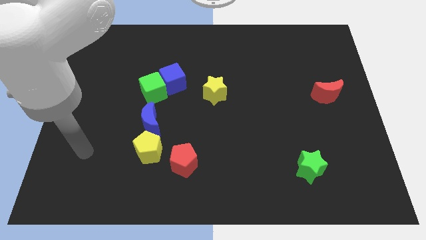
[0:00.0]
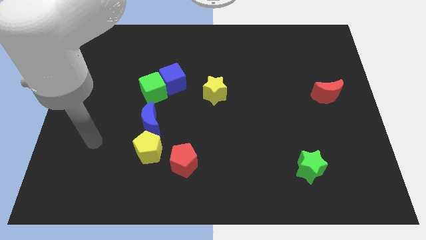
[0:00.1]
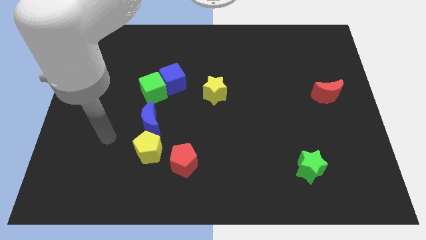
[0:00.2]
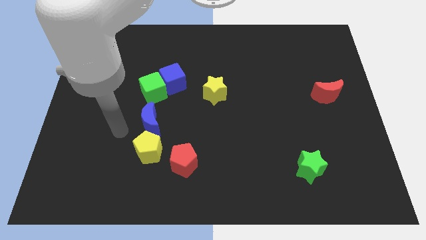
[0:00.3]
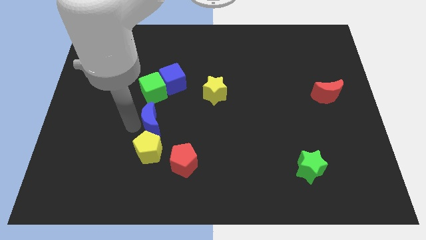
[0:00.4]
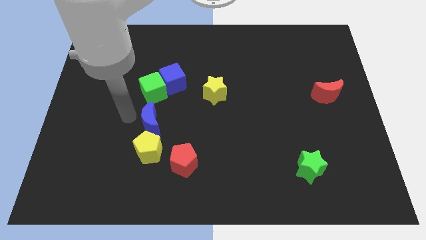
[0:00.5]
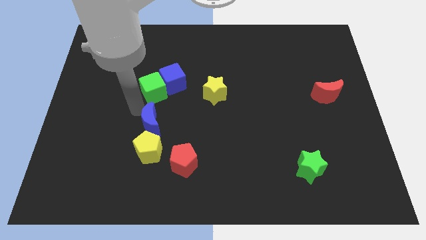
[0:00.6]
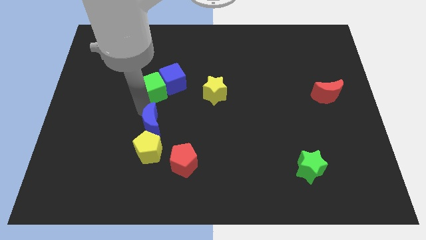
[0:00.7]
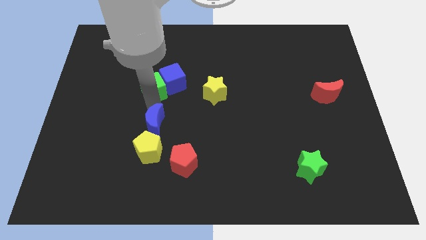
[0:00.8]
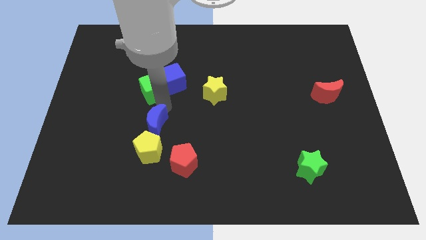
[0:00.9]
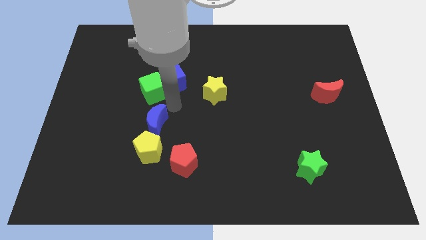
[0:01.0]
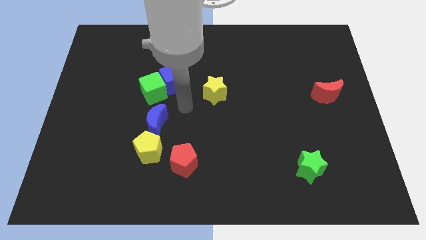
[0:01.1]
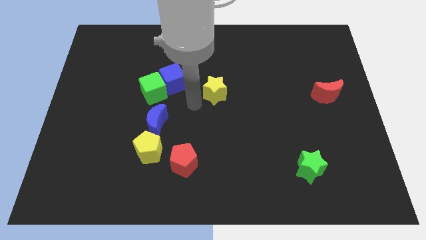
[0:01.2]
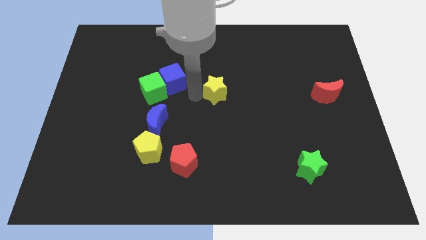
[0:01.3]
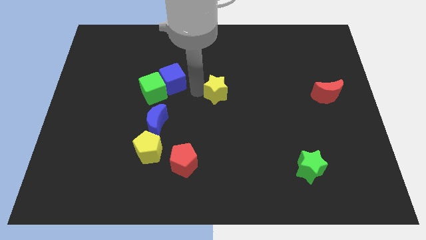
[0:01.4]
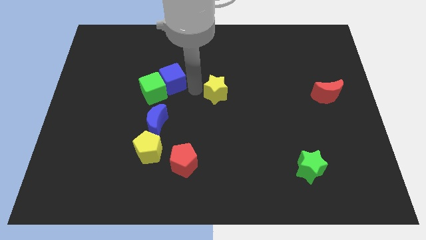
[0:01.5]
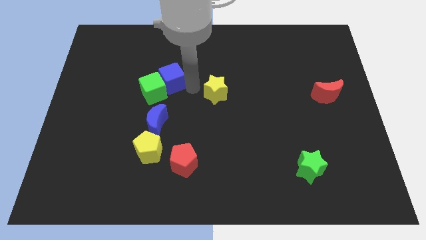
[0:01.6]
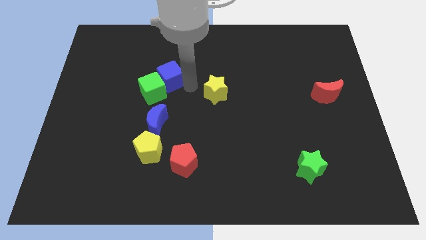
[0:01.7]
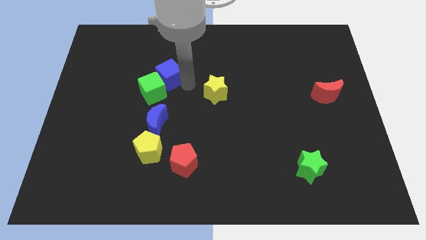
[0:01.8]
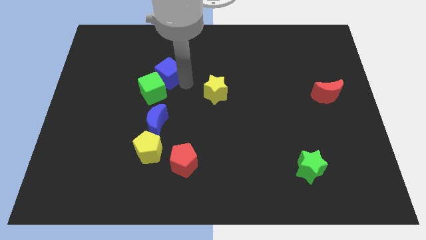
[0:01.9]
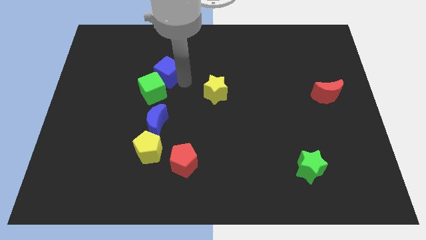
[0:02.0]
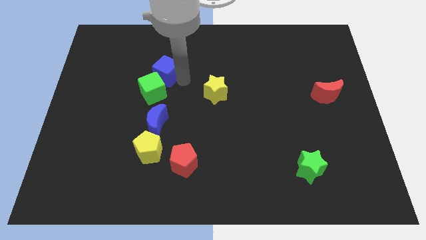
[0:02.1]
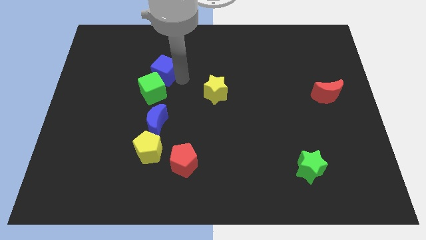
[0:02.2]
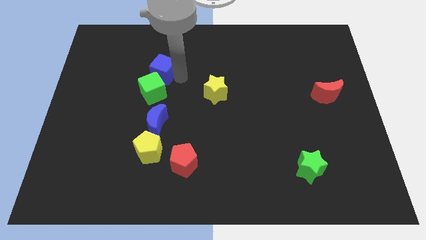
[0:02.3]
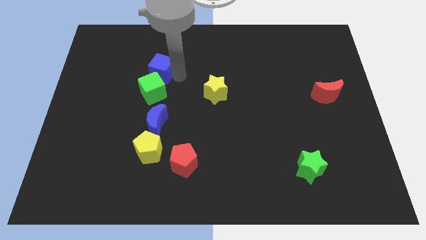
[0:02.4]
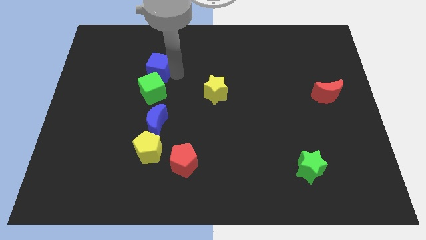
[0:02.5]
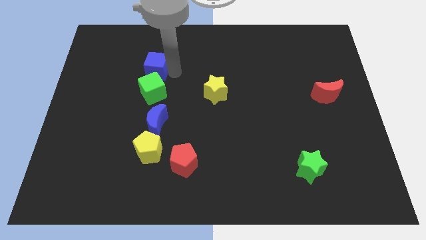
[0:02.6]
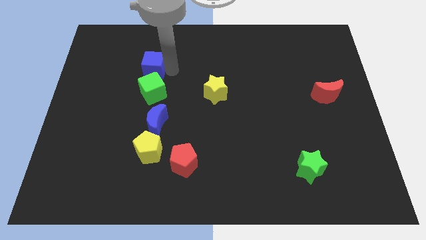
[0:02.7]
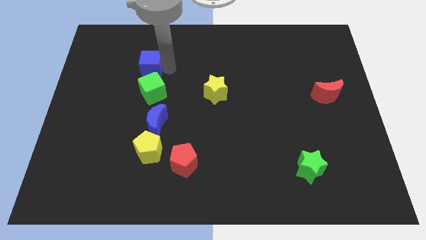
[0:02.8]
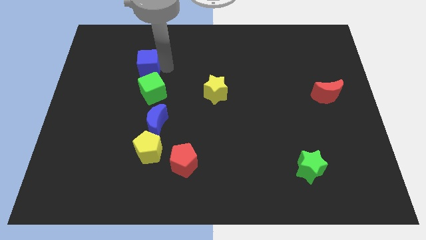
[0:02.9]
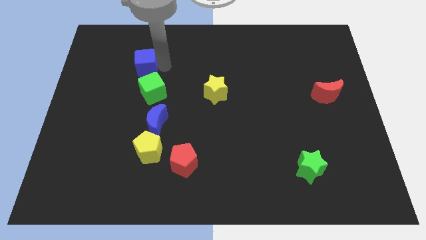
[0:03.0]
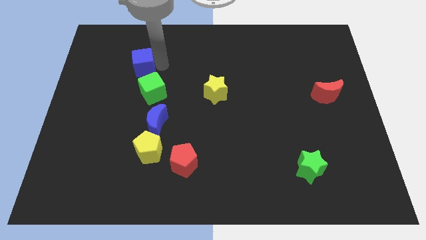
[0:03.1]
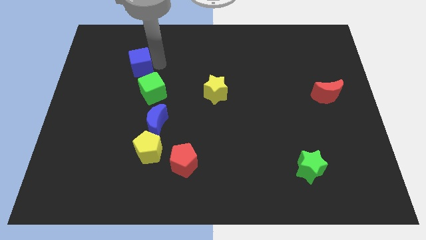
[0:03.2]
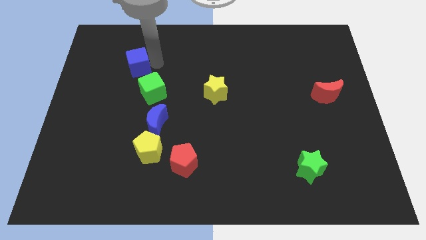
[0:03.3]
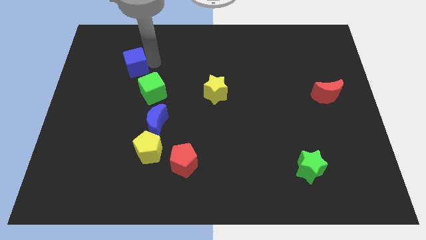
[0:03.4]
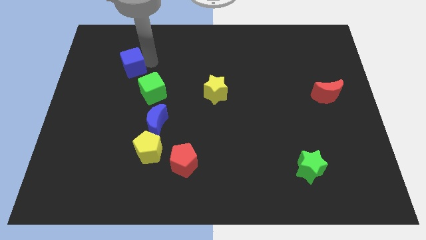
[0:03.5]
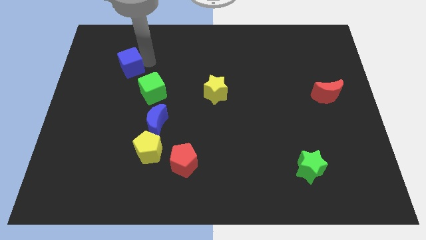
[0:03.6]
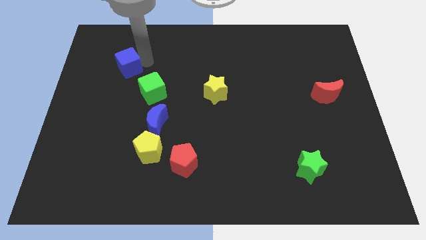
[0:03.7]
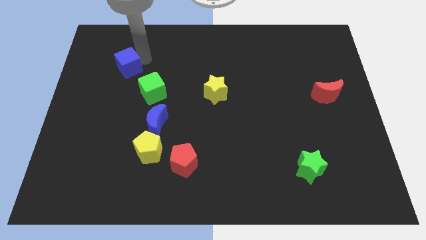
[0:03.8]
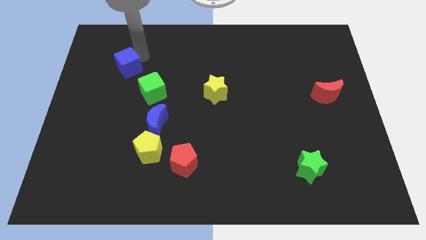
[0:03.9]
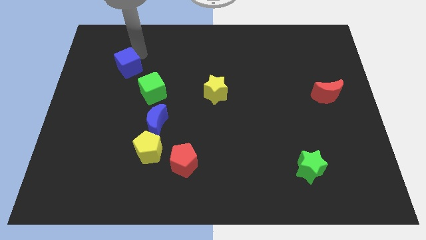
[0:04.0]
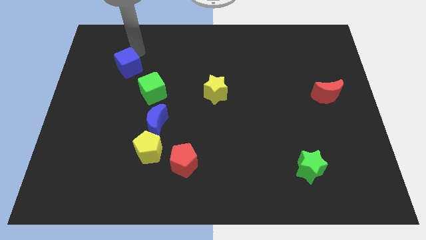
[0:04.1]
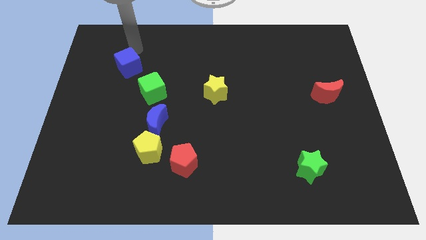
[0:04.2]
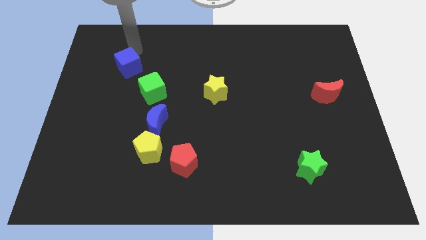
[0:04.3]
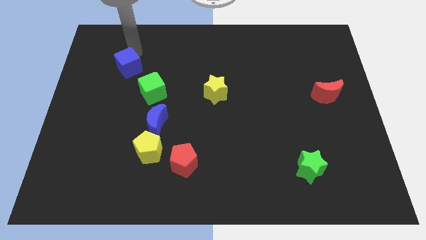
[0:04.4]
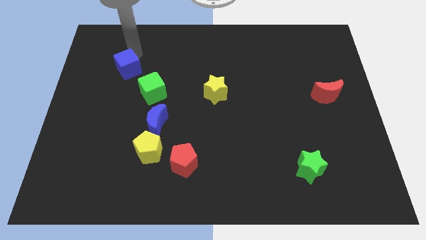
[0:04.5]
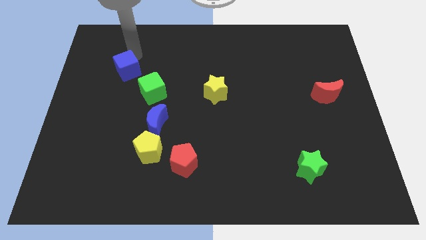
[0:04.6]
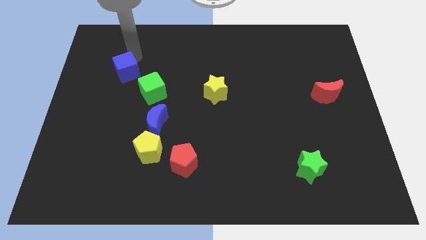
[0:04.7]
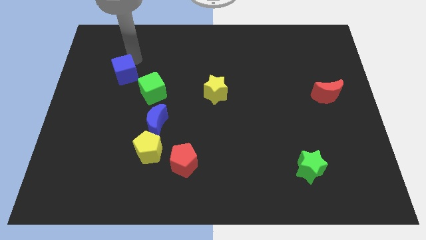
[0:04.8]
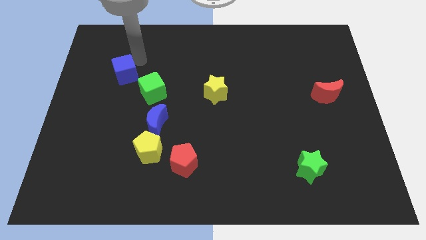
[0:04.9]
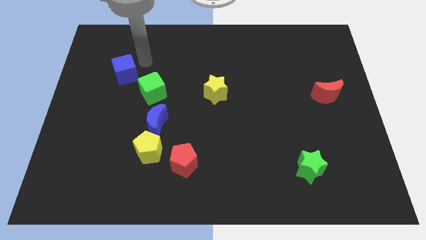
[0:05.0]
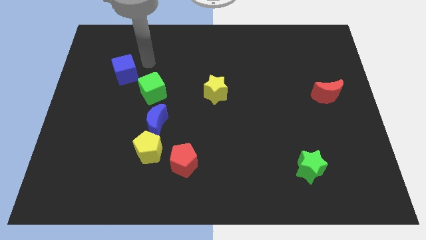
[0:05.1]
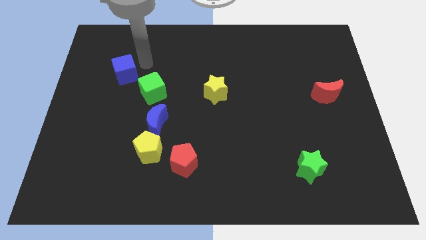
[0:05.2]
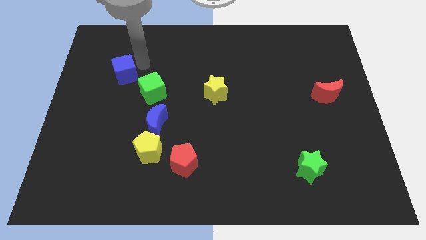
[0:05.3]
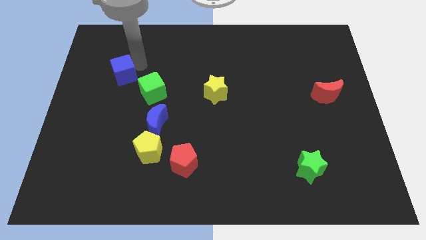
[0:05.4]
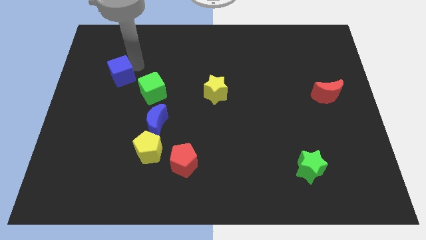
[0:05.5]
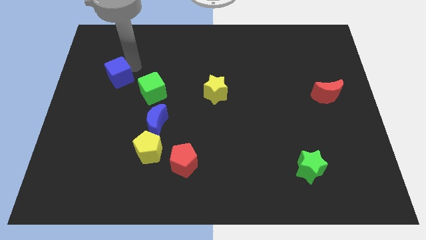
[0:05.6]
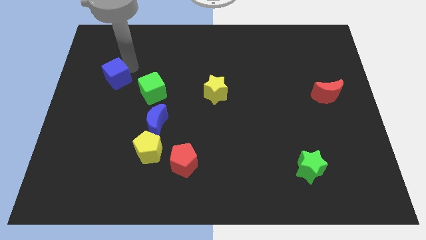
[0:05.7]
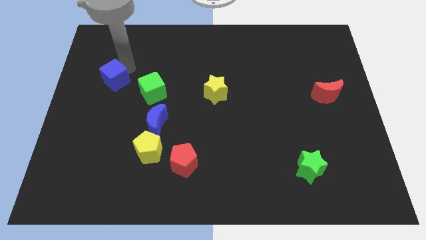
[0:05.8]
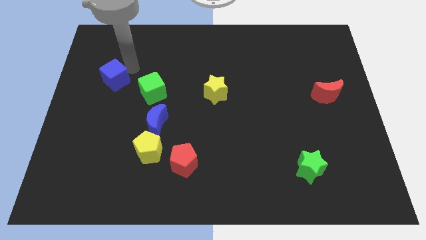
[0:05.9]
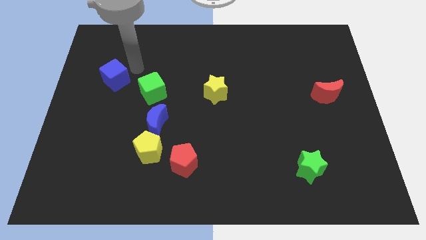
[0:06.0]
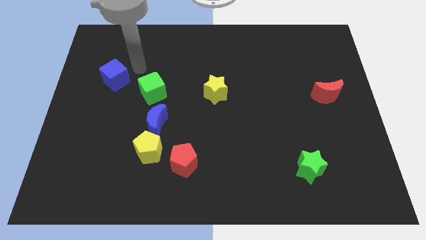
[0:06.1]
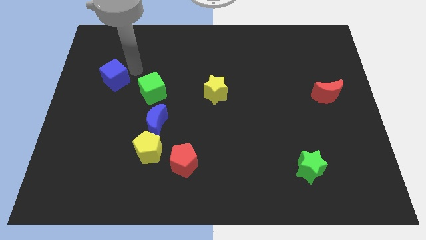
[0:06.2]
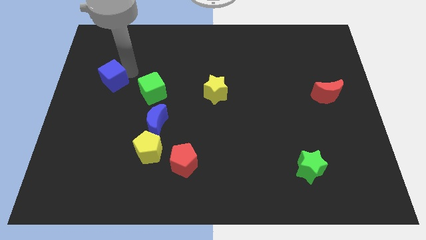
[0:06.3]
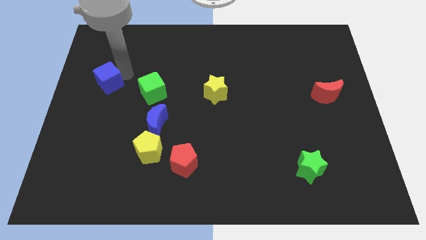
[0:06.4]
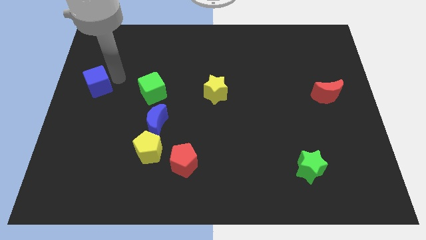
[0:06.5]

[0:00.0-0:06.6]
push the blue cube to the center left

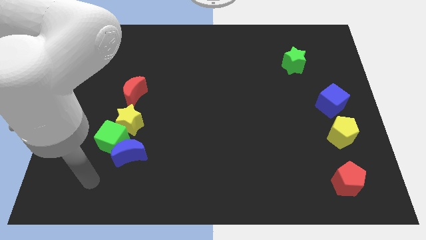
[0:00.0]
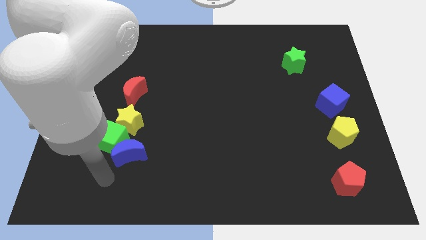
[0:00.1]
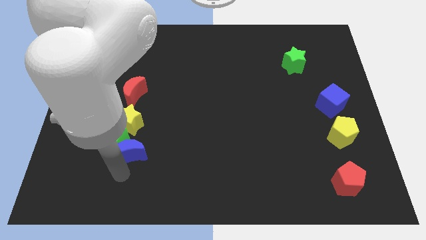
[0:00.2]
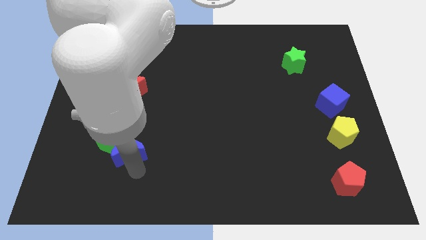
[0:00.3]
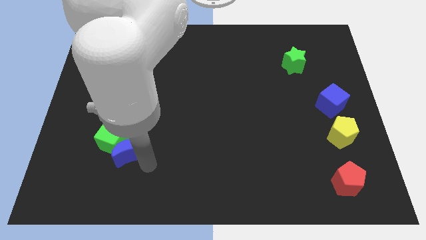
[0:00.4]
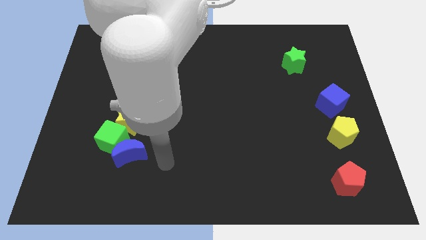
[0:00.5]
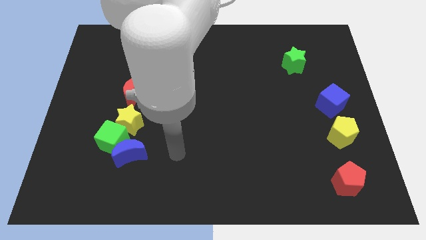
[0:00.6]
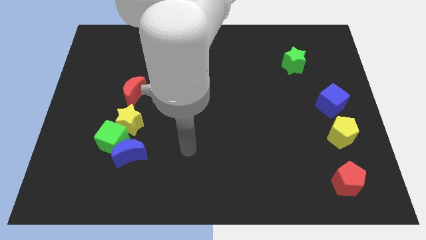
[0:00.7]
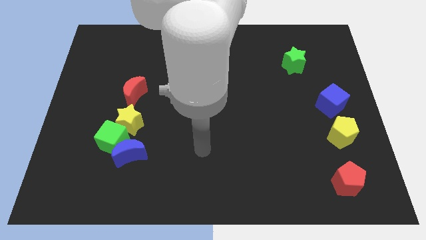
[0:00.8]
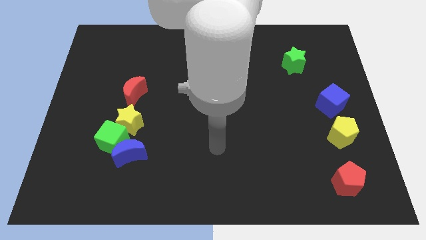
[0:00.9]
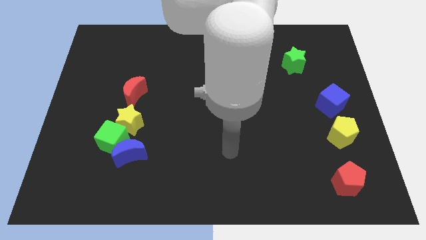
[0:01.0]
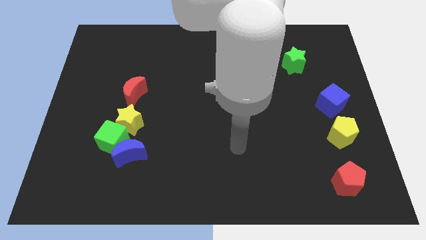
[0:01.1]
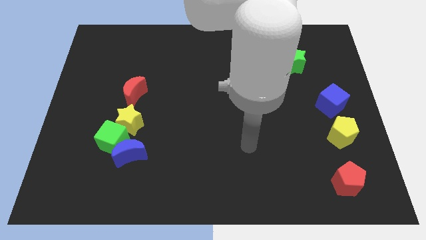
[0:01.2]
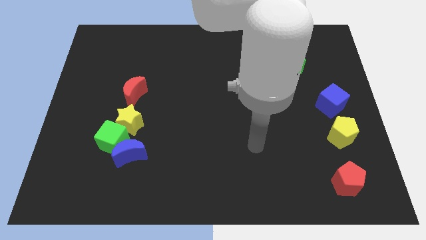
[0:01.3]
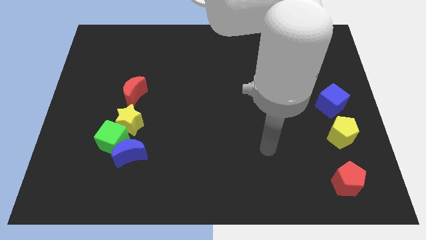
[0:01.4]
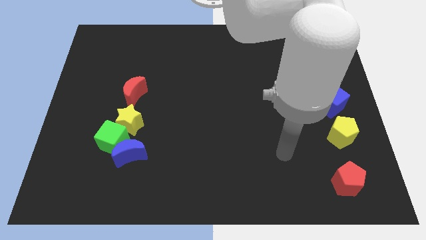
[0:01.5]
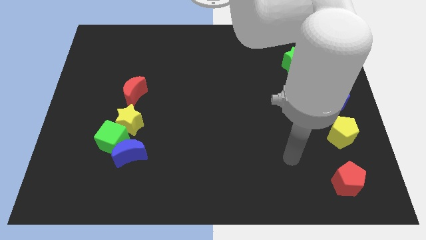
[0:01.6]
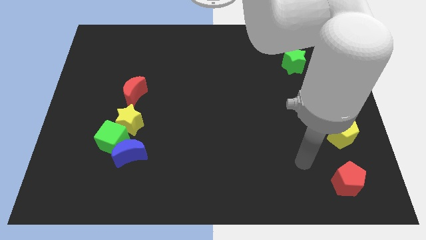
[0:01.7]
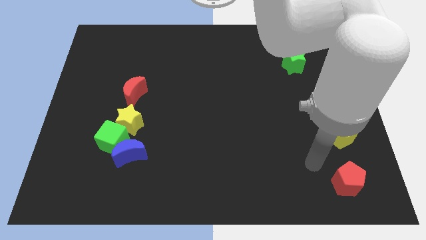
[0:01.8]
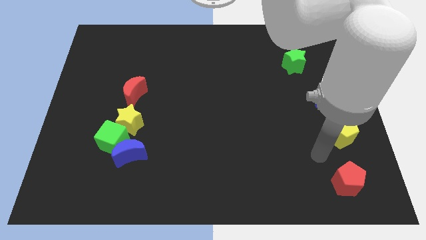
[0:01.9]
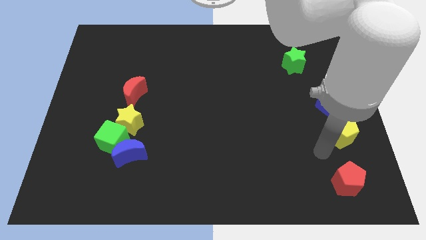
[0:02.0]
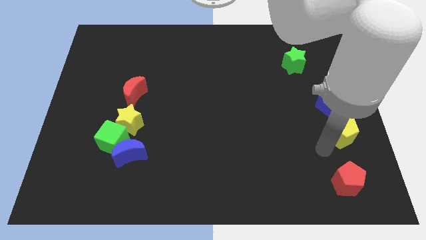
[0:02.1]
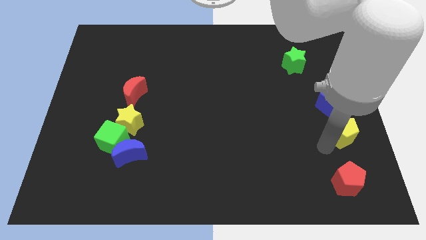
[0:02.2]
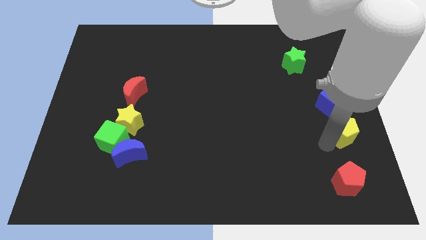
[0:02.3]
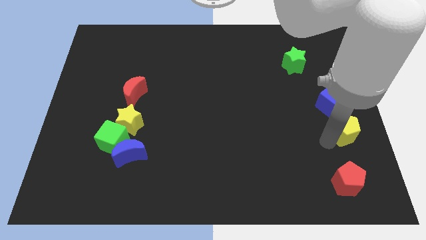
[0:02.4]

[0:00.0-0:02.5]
slide the yellow pentagon to the right side of the board
